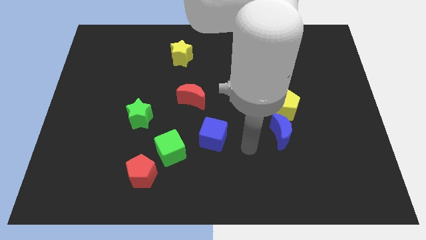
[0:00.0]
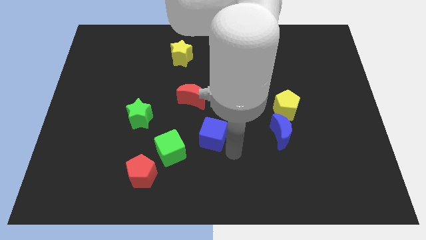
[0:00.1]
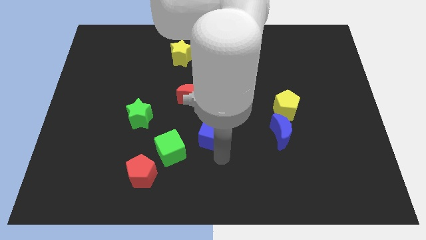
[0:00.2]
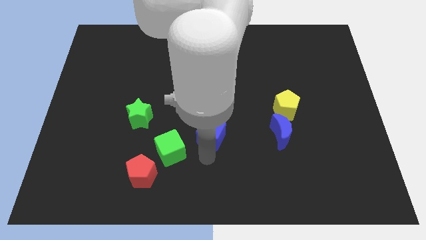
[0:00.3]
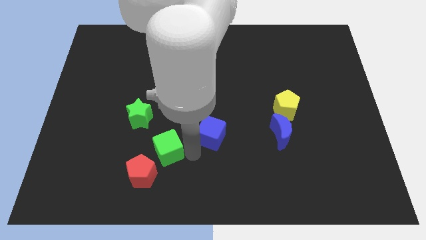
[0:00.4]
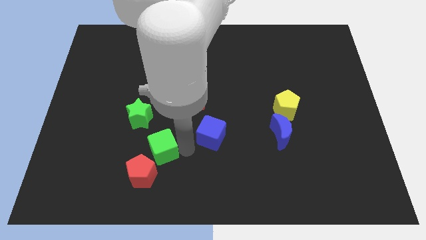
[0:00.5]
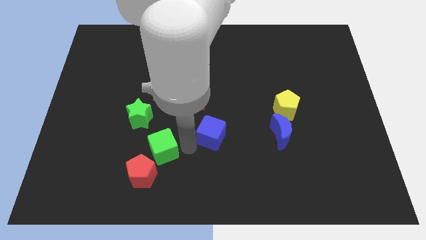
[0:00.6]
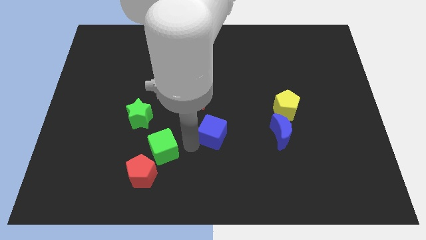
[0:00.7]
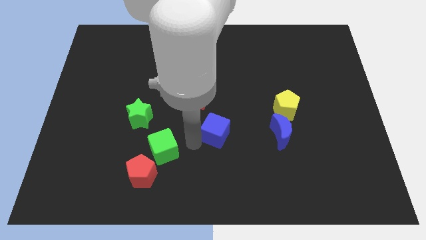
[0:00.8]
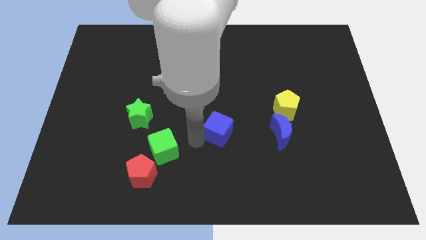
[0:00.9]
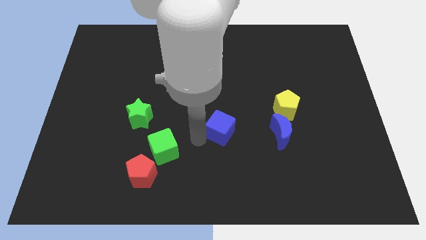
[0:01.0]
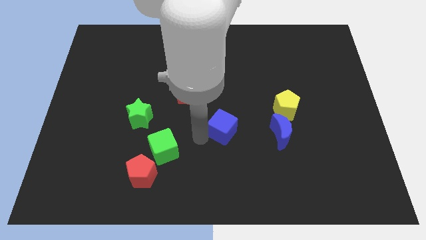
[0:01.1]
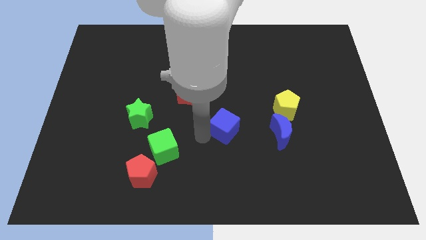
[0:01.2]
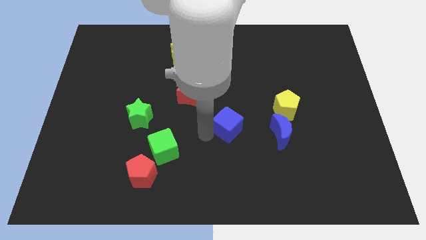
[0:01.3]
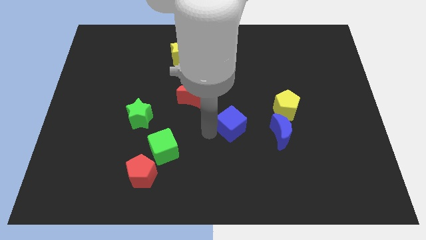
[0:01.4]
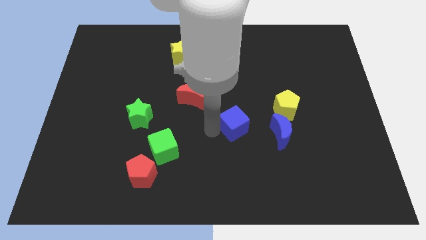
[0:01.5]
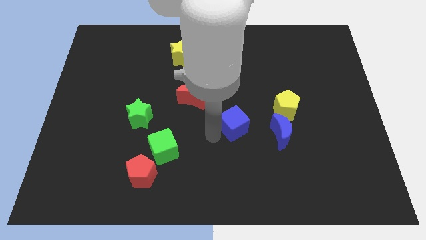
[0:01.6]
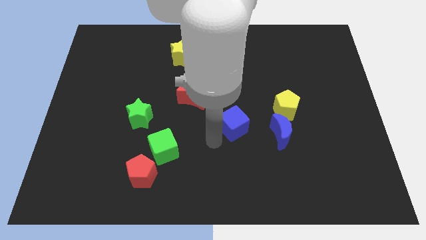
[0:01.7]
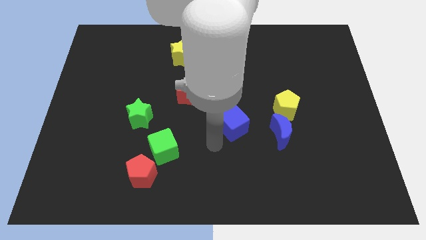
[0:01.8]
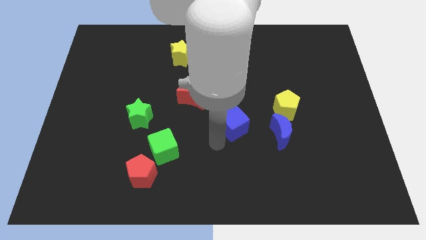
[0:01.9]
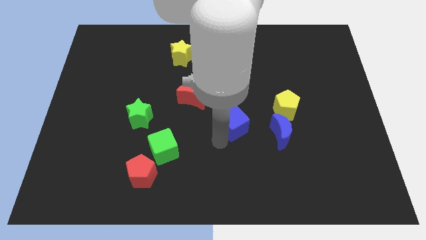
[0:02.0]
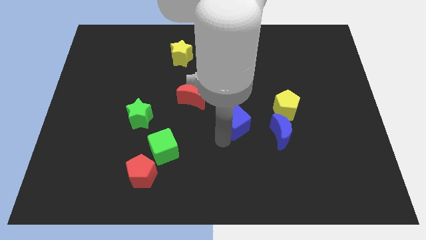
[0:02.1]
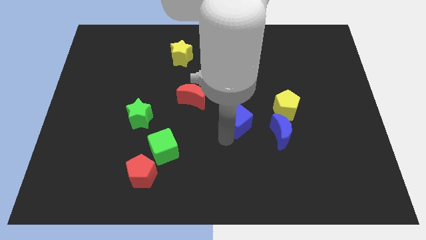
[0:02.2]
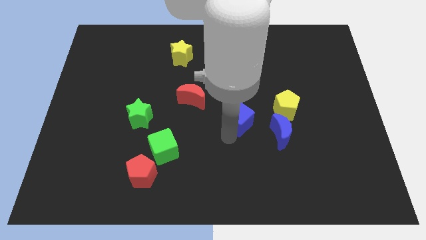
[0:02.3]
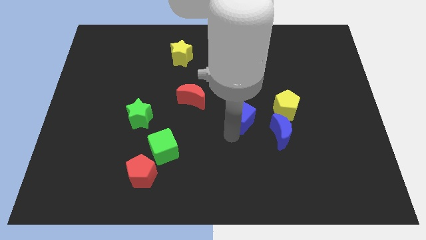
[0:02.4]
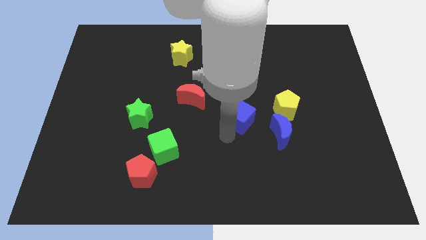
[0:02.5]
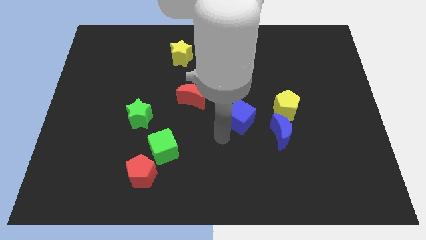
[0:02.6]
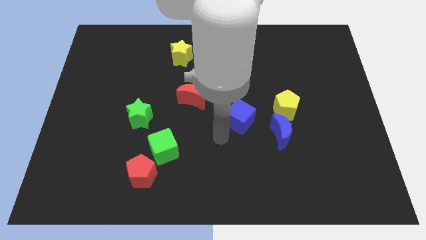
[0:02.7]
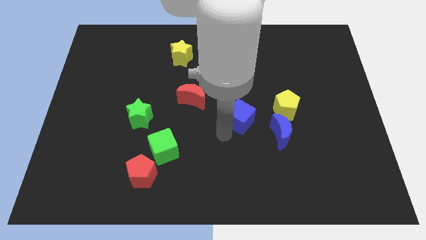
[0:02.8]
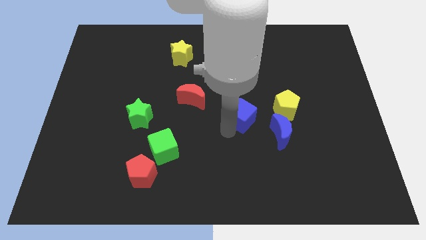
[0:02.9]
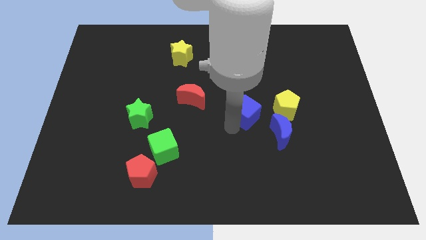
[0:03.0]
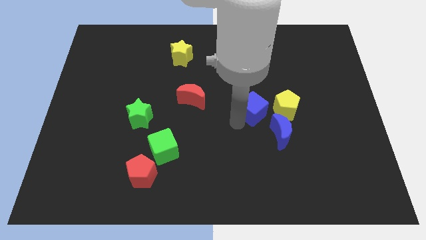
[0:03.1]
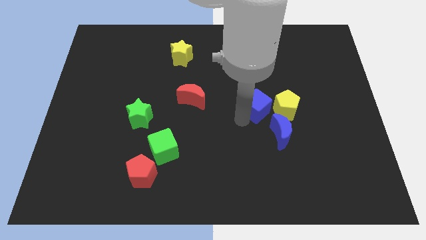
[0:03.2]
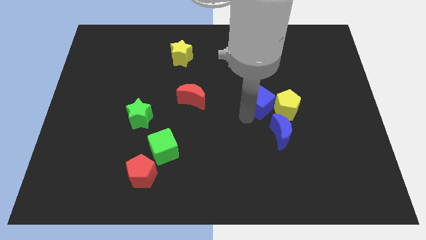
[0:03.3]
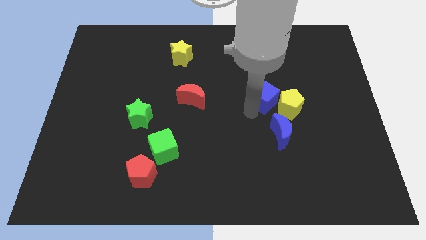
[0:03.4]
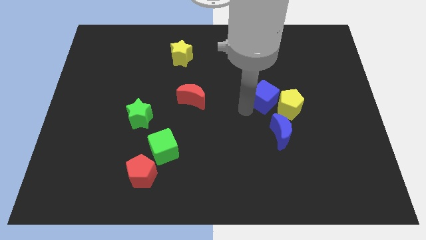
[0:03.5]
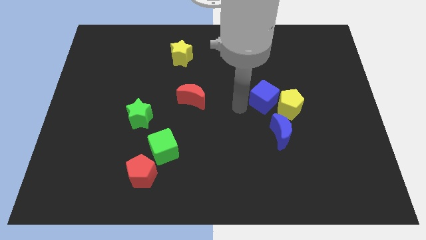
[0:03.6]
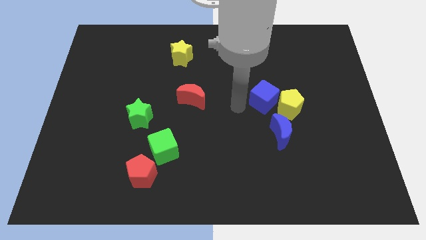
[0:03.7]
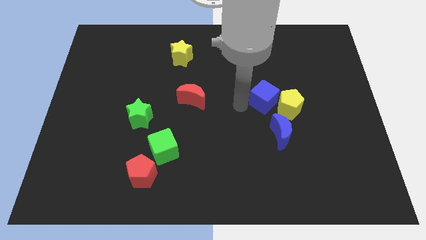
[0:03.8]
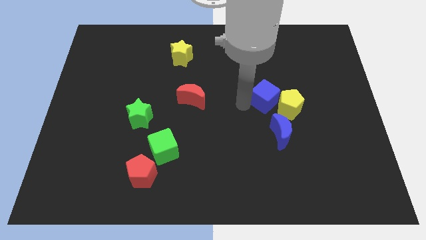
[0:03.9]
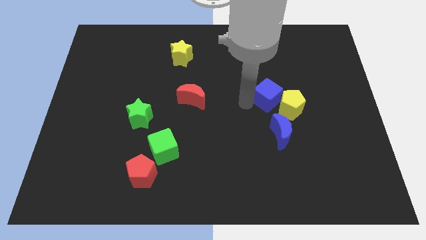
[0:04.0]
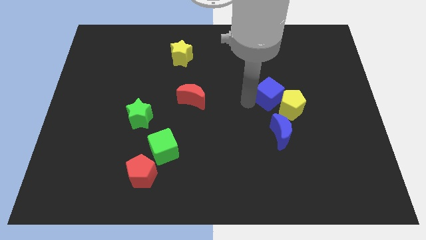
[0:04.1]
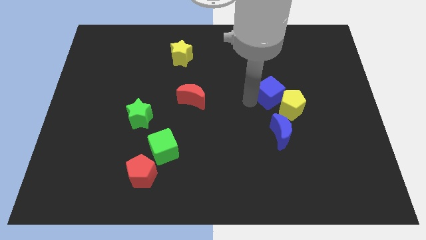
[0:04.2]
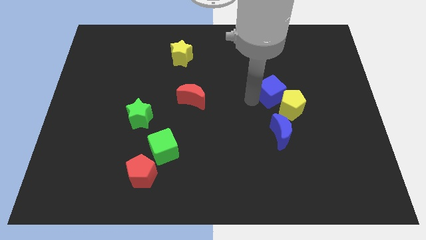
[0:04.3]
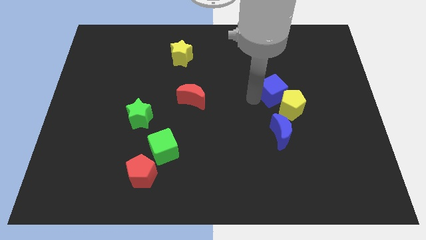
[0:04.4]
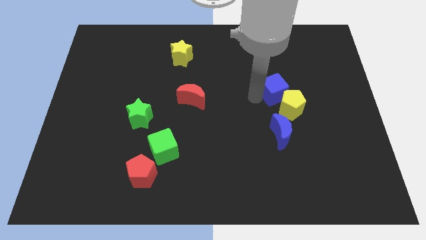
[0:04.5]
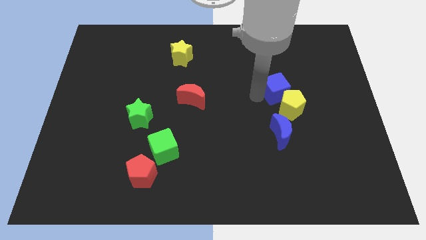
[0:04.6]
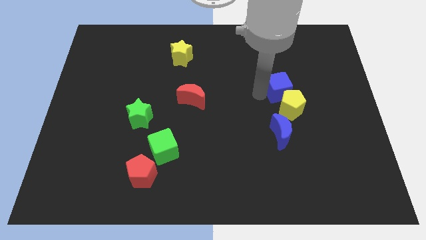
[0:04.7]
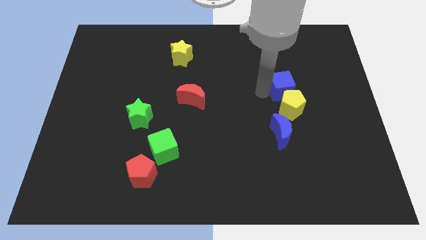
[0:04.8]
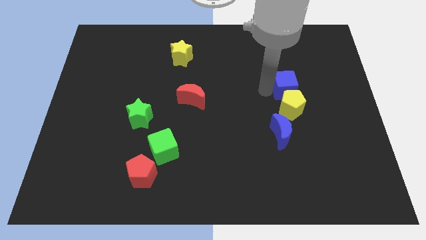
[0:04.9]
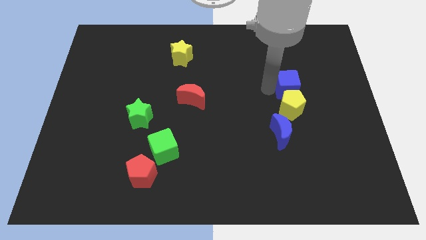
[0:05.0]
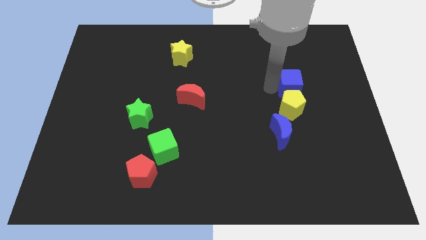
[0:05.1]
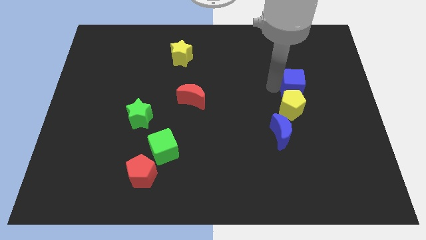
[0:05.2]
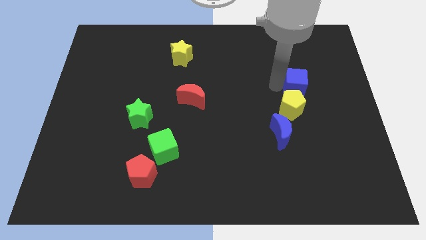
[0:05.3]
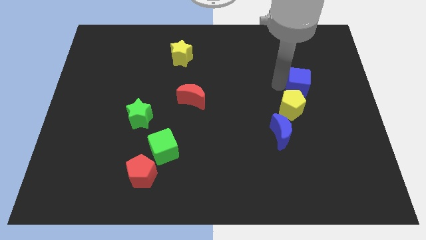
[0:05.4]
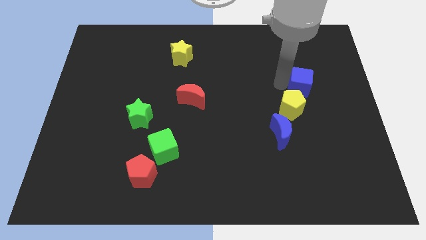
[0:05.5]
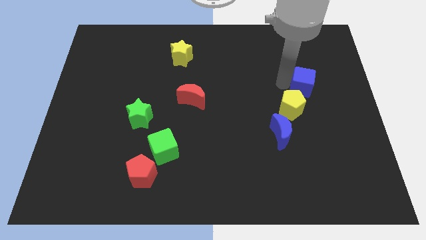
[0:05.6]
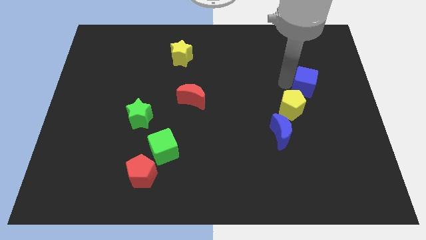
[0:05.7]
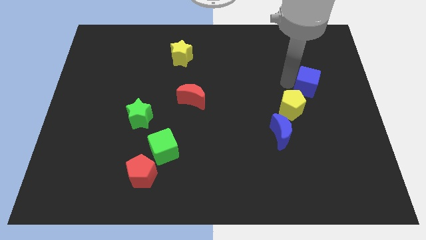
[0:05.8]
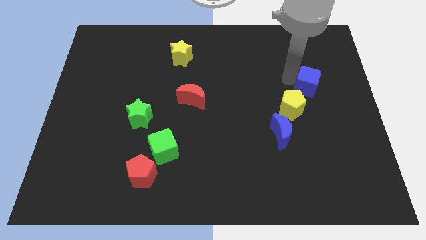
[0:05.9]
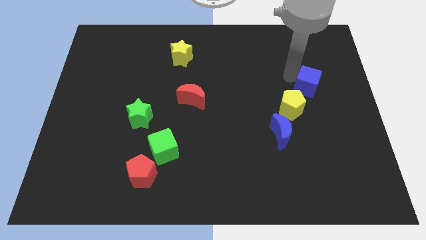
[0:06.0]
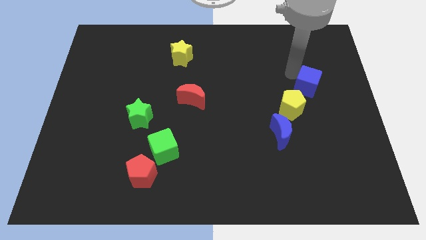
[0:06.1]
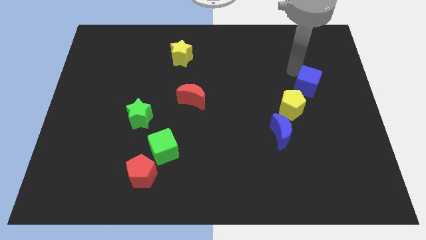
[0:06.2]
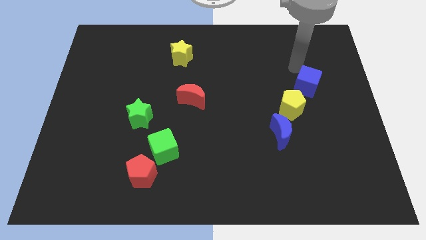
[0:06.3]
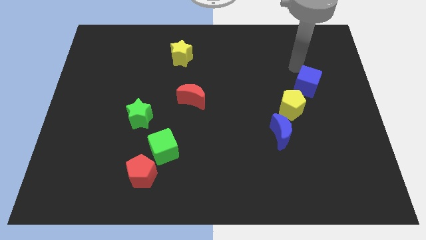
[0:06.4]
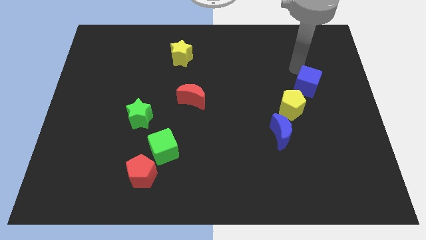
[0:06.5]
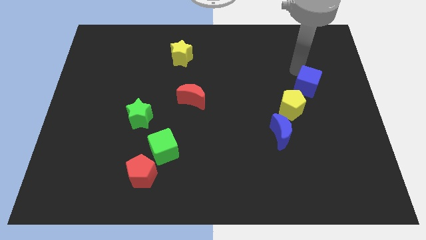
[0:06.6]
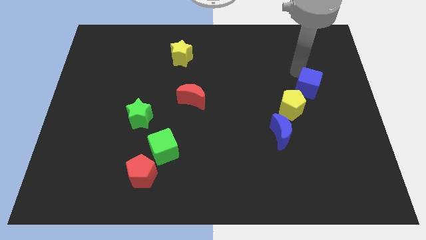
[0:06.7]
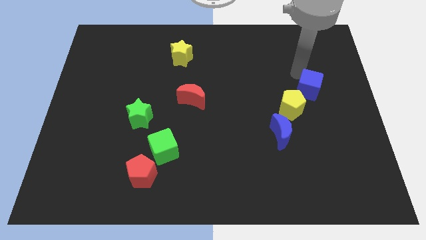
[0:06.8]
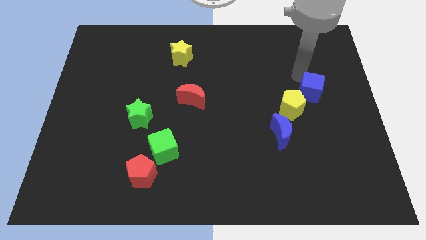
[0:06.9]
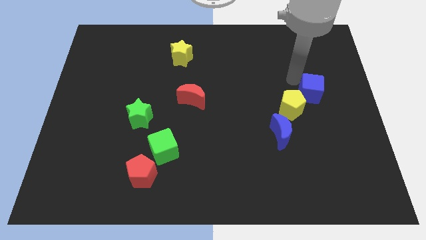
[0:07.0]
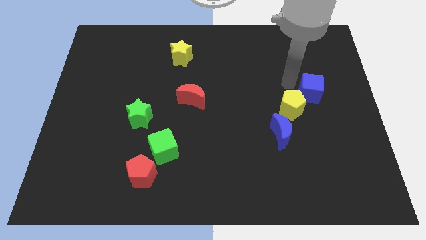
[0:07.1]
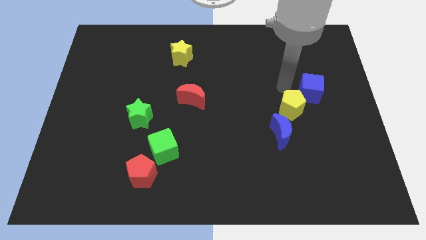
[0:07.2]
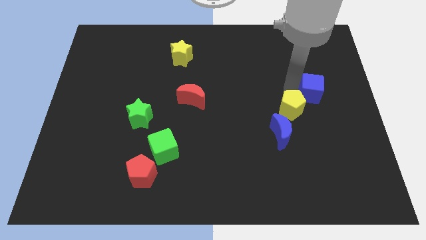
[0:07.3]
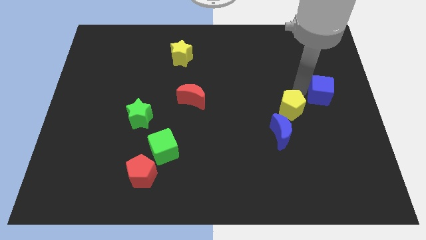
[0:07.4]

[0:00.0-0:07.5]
push the blue cube to the right side of the board

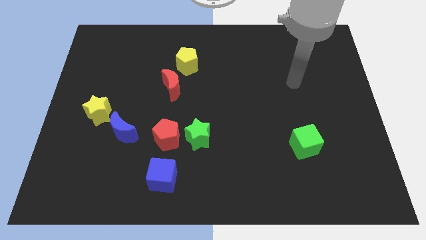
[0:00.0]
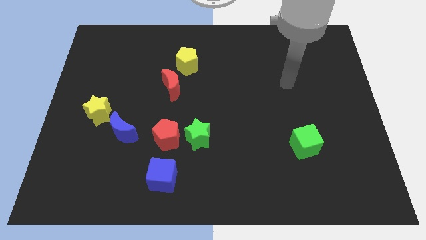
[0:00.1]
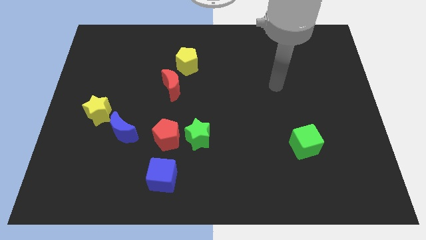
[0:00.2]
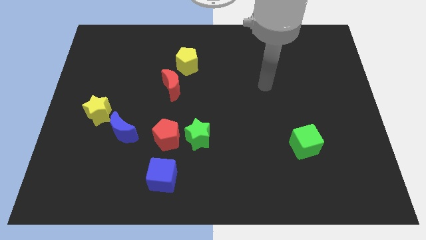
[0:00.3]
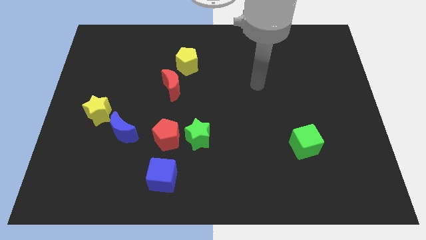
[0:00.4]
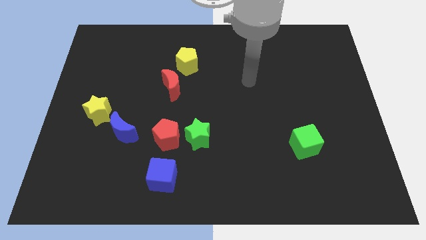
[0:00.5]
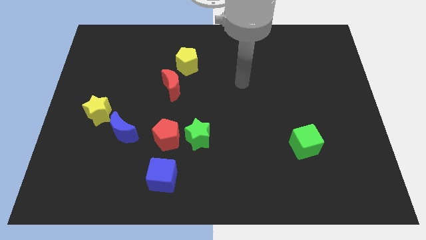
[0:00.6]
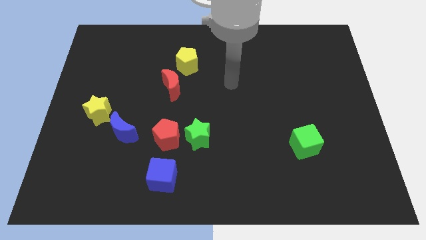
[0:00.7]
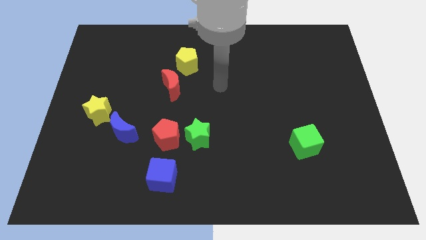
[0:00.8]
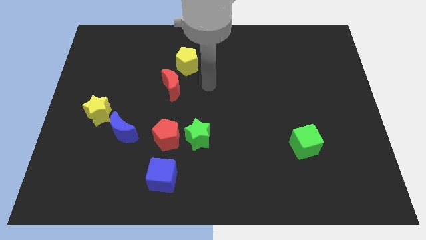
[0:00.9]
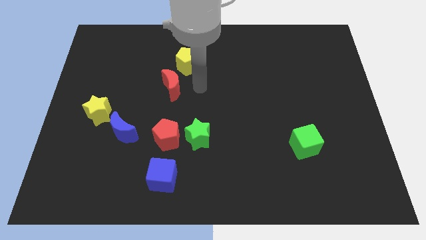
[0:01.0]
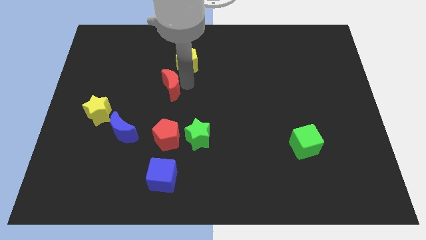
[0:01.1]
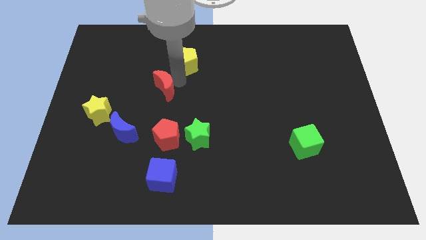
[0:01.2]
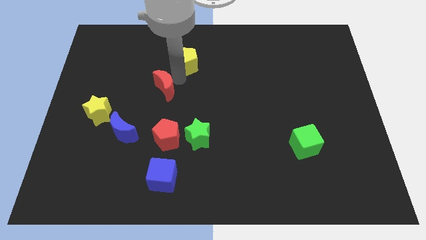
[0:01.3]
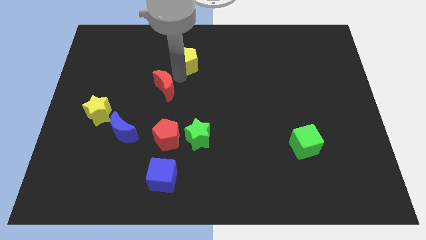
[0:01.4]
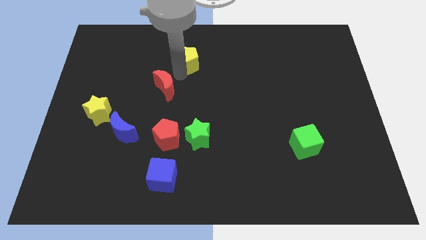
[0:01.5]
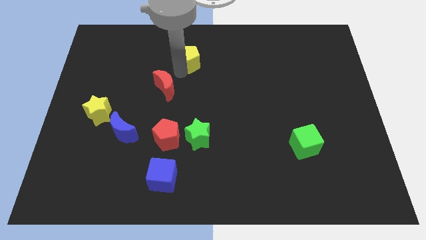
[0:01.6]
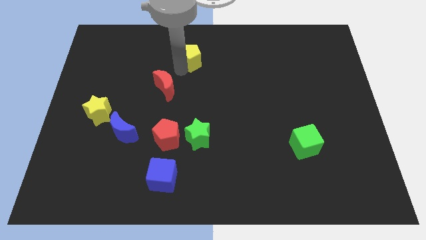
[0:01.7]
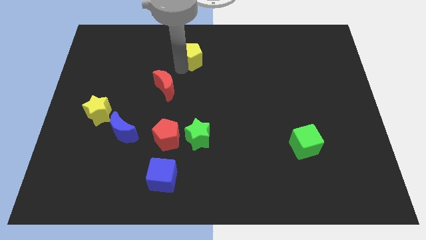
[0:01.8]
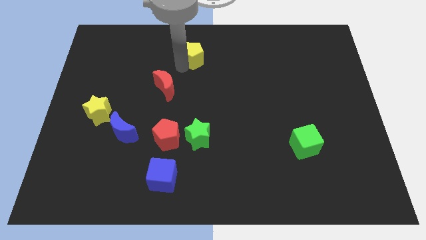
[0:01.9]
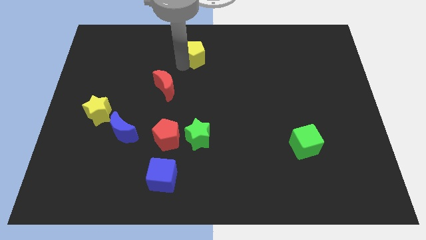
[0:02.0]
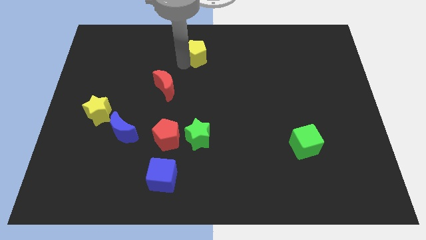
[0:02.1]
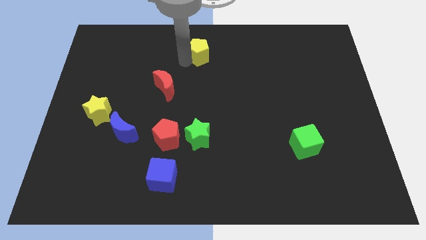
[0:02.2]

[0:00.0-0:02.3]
push the yellow pentagon to the top side
